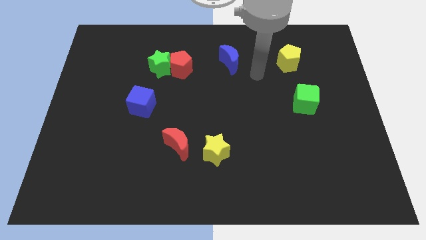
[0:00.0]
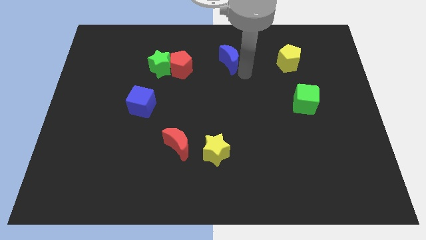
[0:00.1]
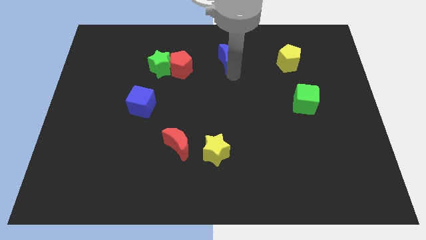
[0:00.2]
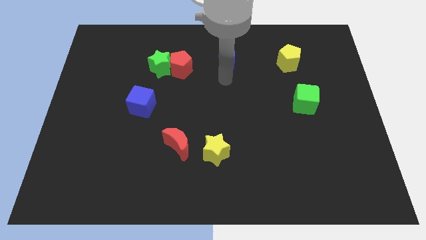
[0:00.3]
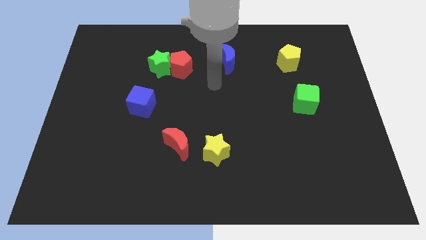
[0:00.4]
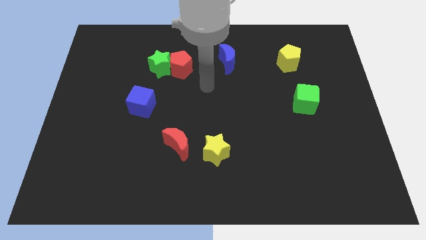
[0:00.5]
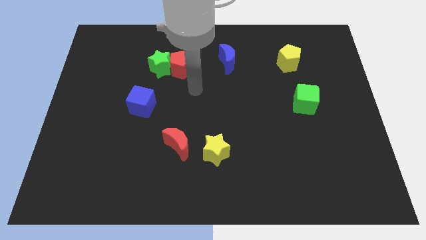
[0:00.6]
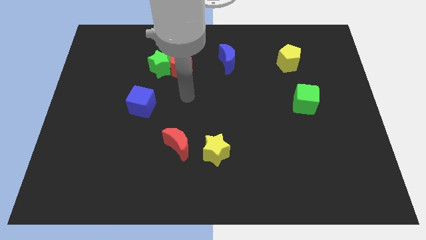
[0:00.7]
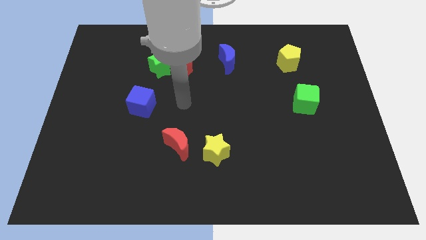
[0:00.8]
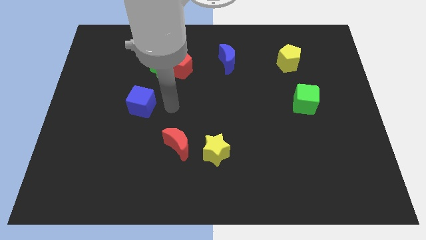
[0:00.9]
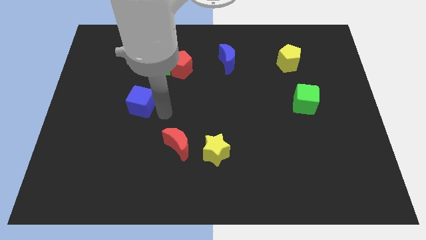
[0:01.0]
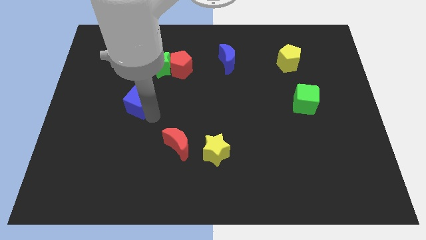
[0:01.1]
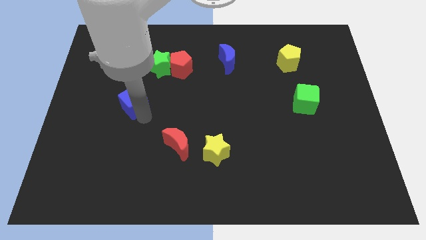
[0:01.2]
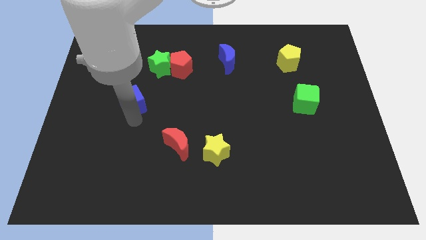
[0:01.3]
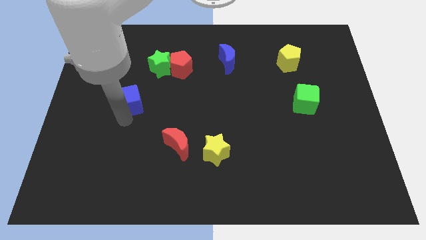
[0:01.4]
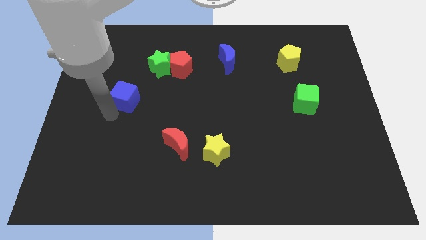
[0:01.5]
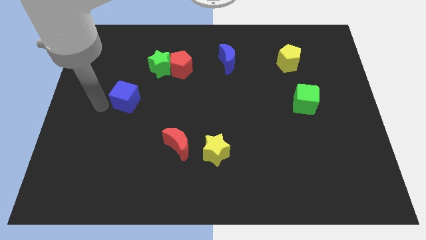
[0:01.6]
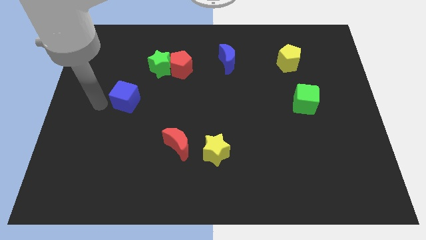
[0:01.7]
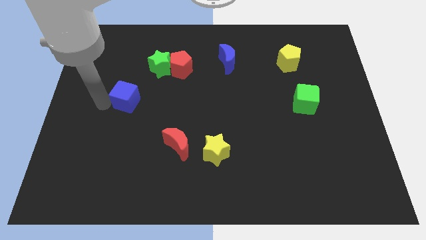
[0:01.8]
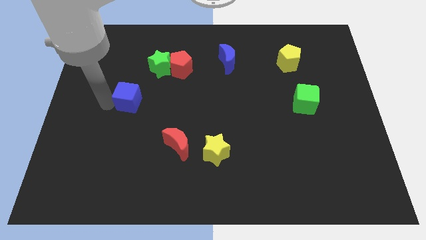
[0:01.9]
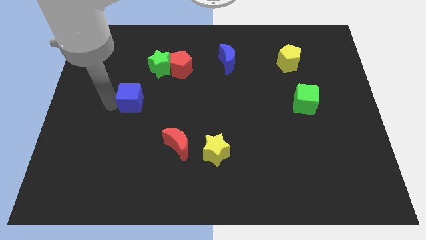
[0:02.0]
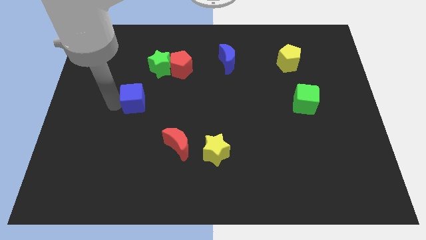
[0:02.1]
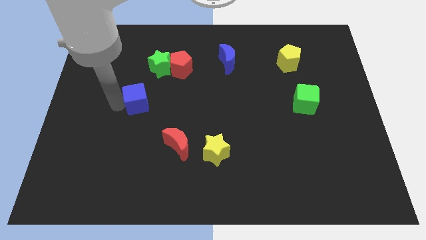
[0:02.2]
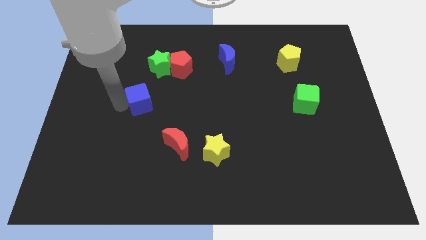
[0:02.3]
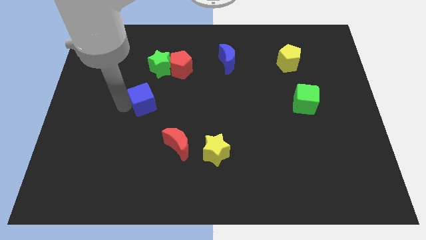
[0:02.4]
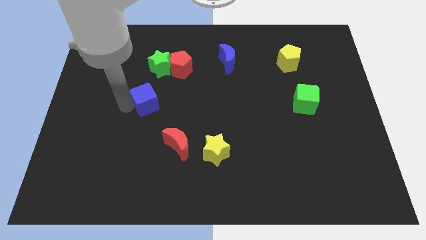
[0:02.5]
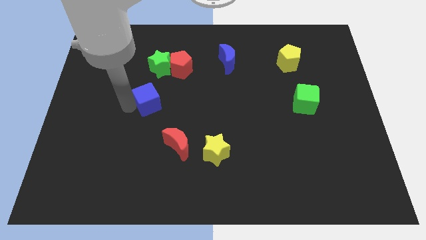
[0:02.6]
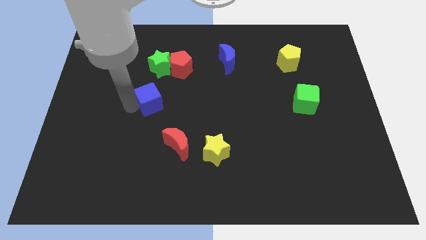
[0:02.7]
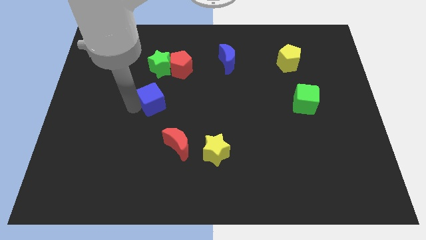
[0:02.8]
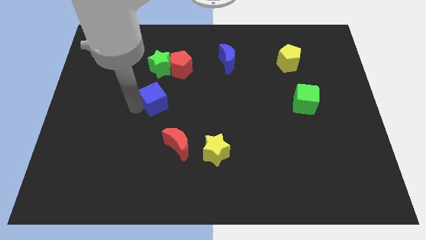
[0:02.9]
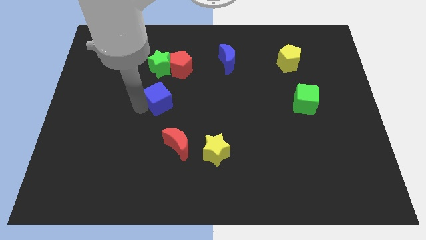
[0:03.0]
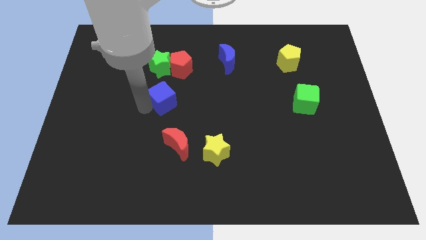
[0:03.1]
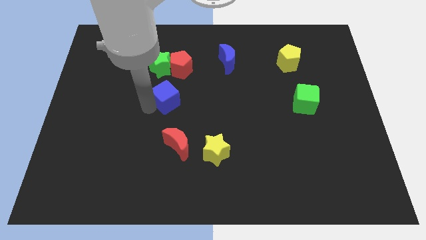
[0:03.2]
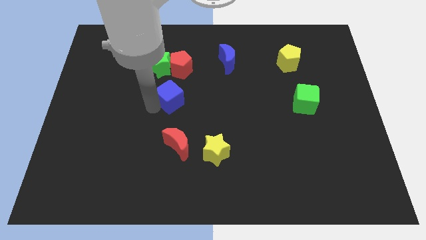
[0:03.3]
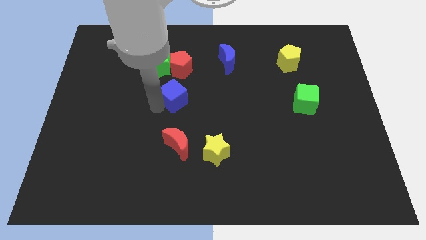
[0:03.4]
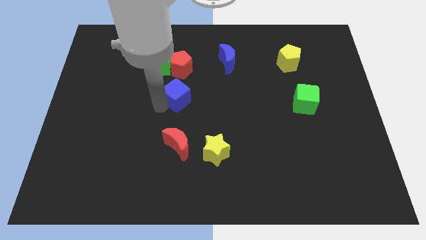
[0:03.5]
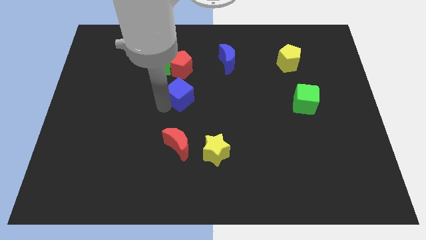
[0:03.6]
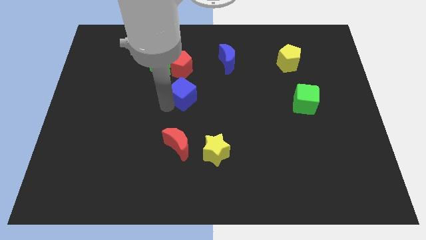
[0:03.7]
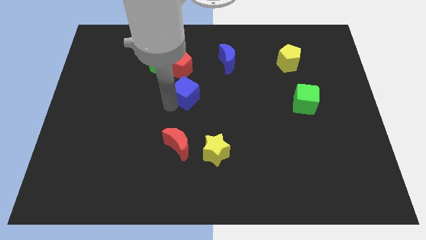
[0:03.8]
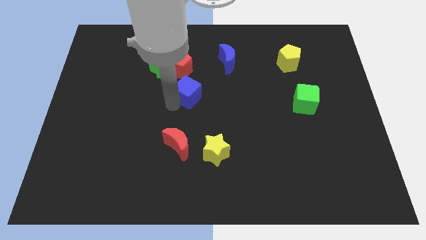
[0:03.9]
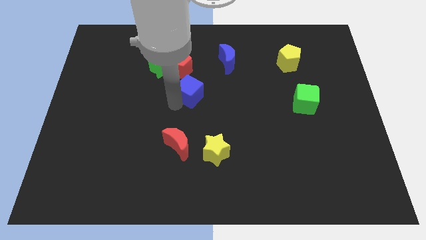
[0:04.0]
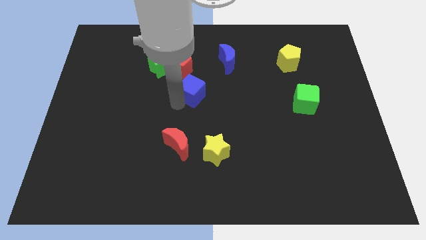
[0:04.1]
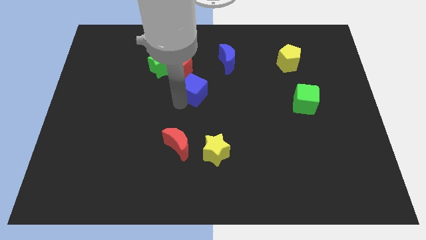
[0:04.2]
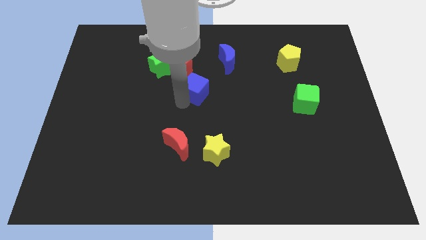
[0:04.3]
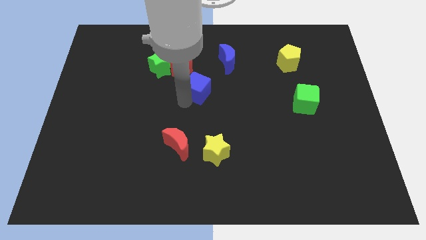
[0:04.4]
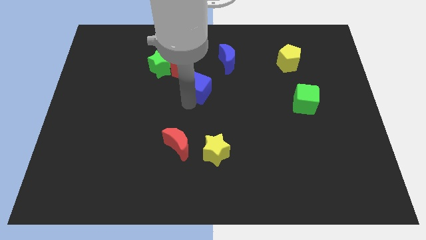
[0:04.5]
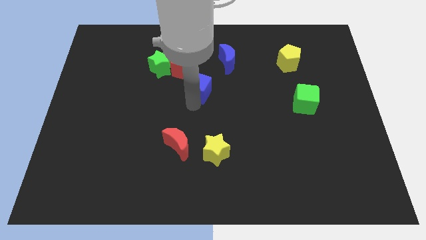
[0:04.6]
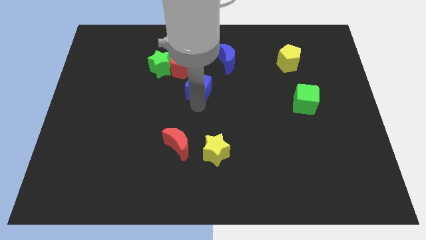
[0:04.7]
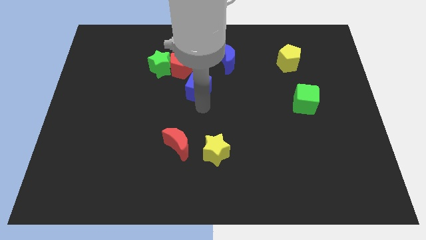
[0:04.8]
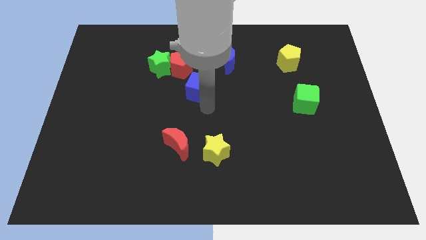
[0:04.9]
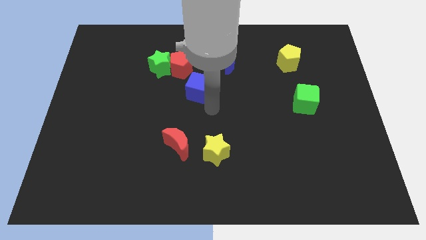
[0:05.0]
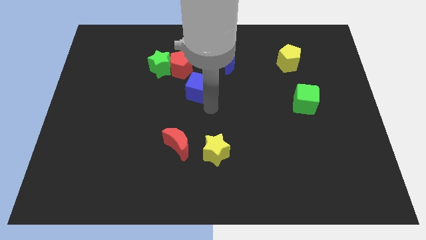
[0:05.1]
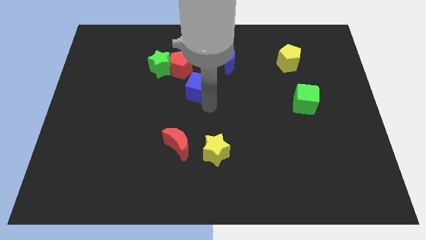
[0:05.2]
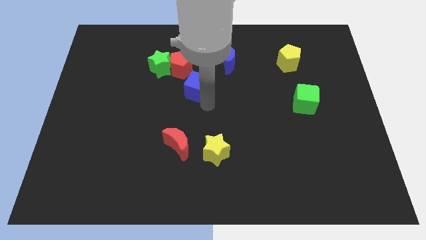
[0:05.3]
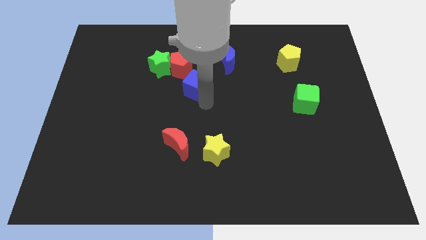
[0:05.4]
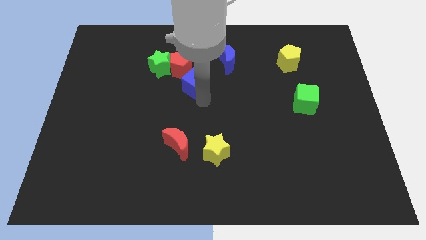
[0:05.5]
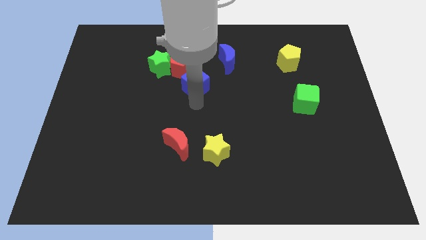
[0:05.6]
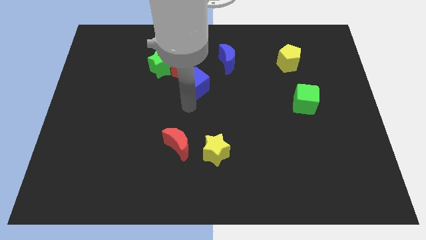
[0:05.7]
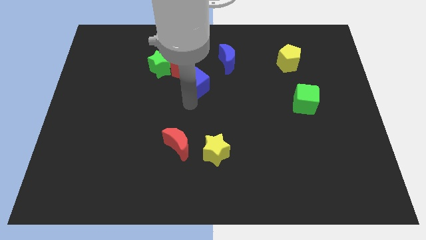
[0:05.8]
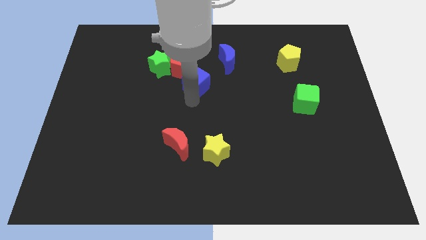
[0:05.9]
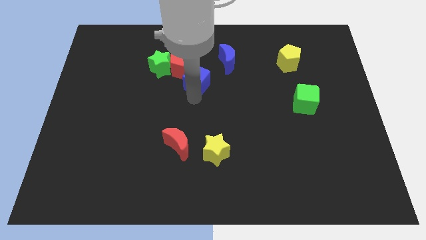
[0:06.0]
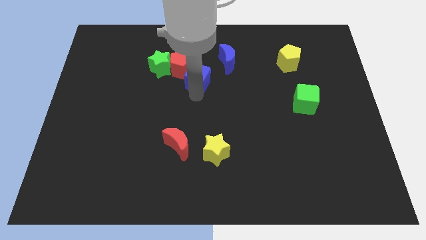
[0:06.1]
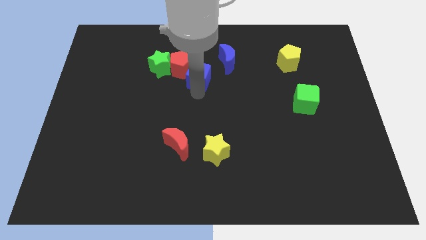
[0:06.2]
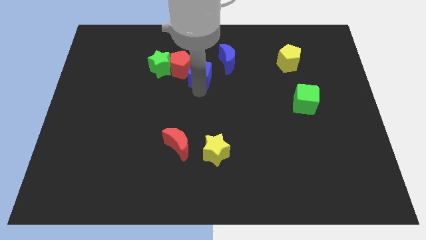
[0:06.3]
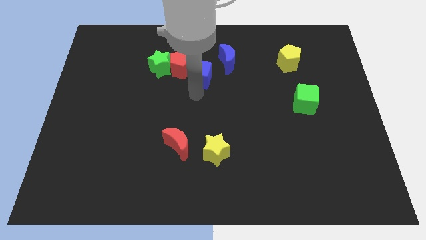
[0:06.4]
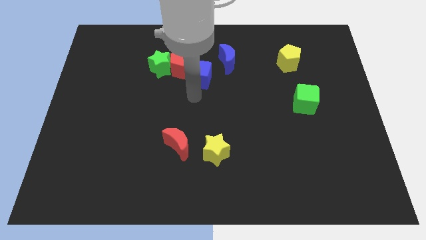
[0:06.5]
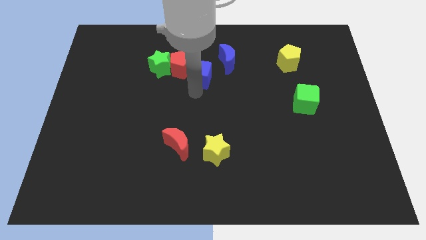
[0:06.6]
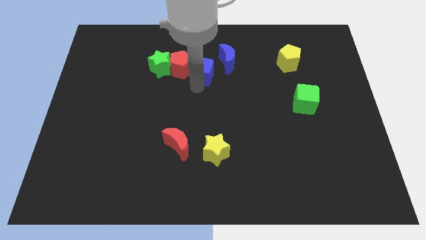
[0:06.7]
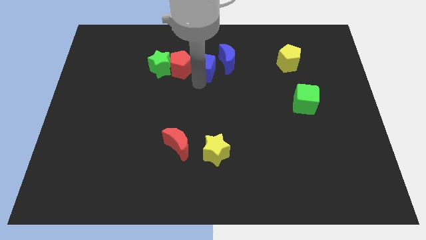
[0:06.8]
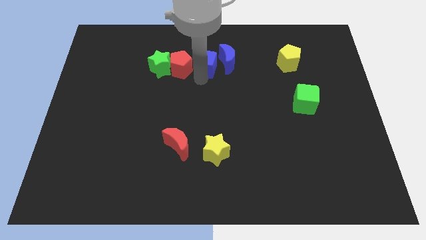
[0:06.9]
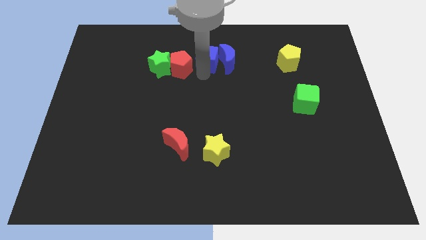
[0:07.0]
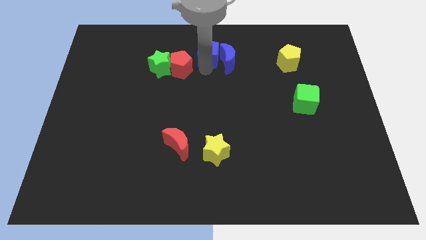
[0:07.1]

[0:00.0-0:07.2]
move the blue cube to the towards your base
